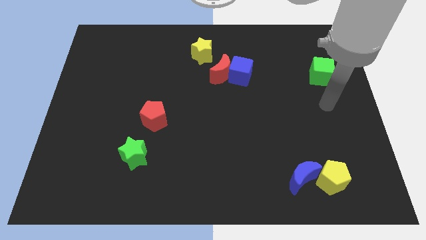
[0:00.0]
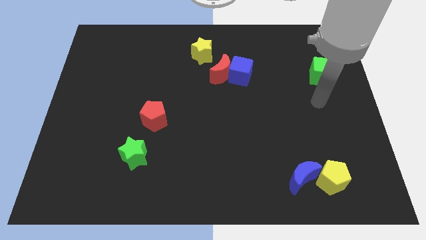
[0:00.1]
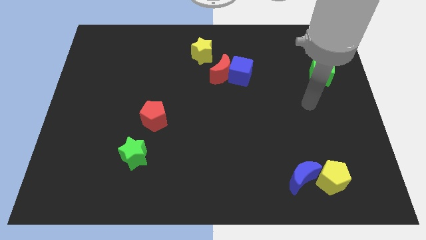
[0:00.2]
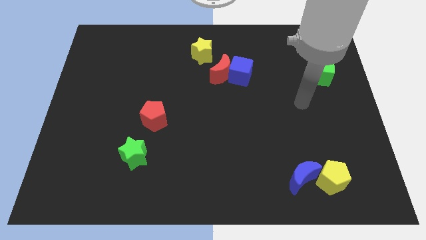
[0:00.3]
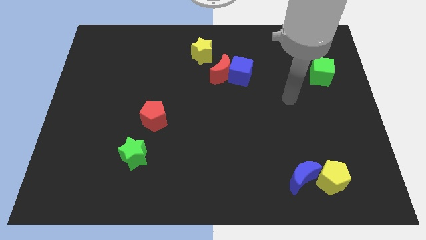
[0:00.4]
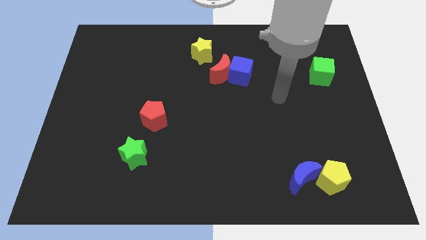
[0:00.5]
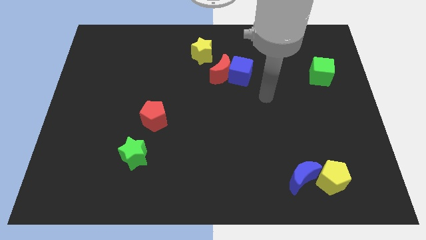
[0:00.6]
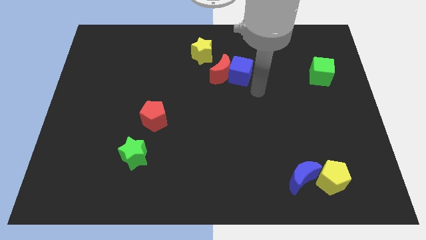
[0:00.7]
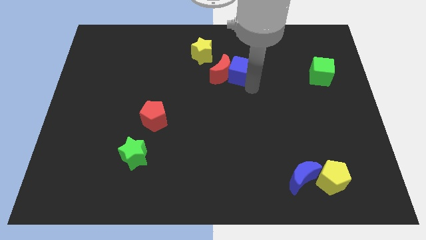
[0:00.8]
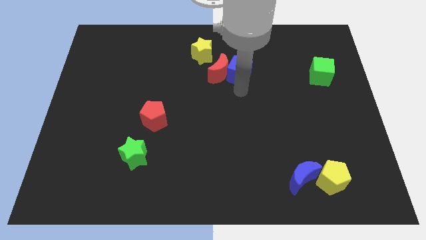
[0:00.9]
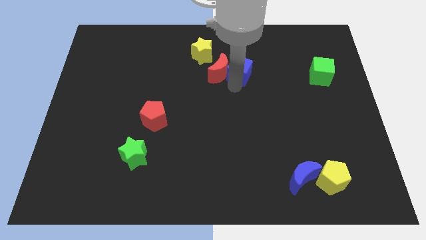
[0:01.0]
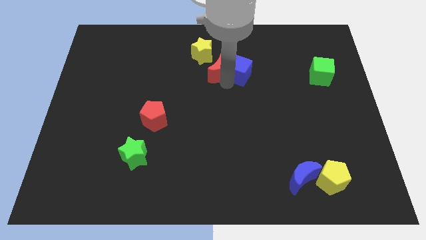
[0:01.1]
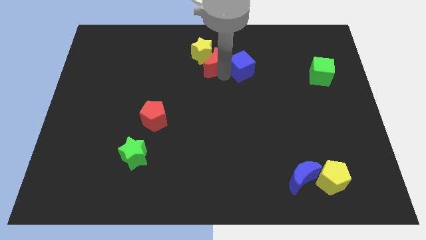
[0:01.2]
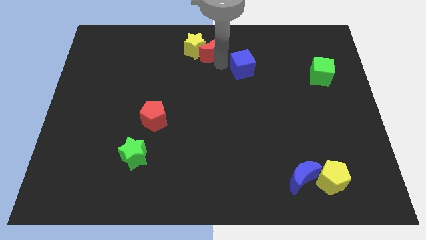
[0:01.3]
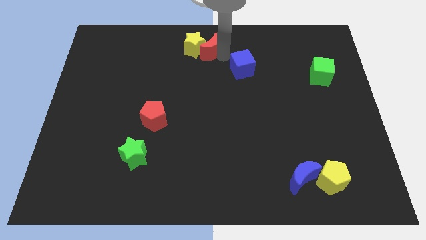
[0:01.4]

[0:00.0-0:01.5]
separate the blue cube from the red moon

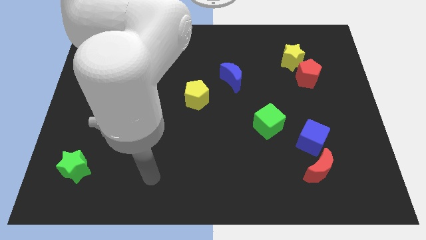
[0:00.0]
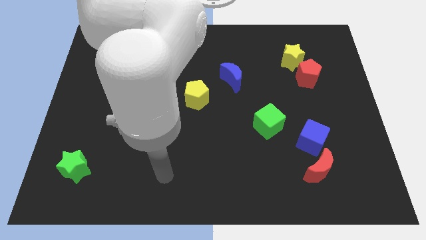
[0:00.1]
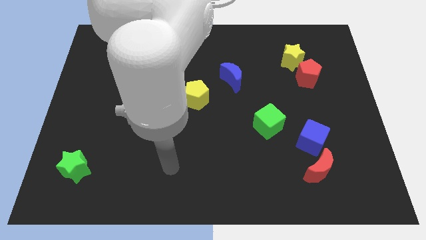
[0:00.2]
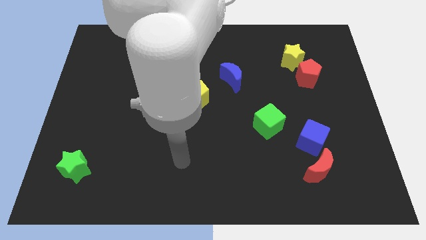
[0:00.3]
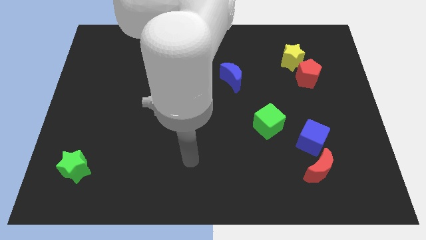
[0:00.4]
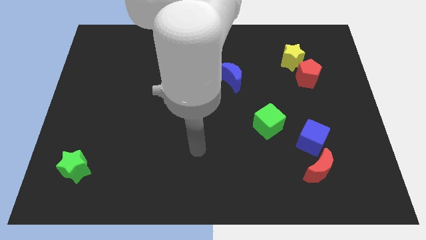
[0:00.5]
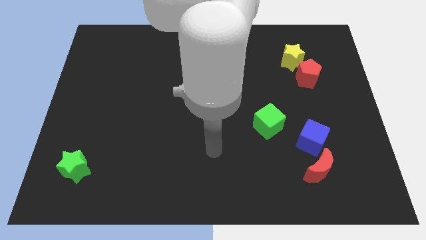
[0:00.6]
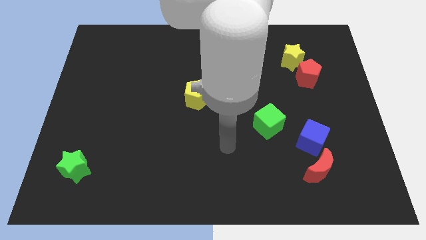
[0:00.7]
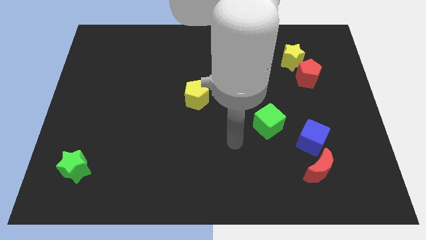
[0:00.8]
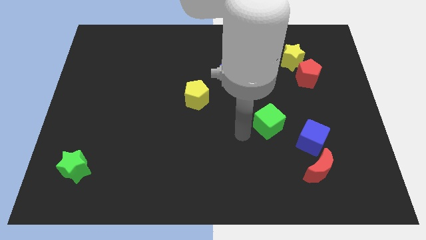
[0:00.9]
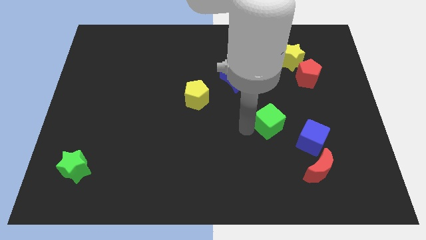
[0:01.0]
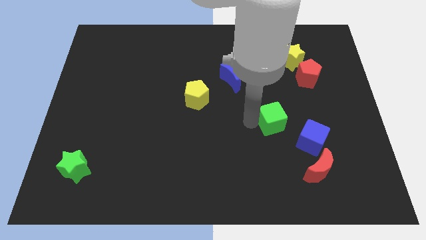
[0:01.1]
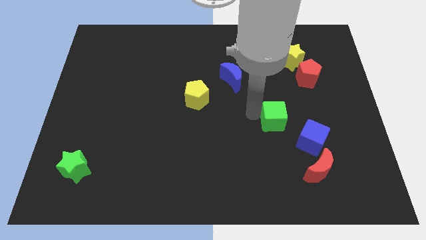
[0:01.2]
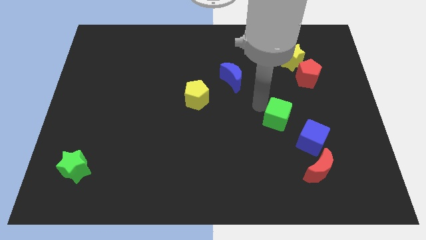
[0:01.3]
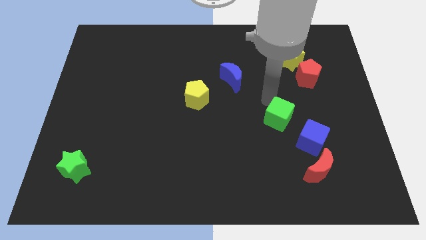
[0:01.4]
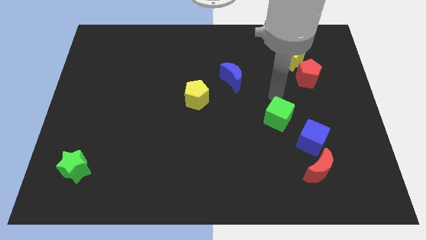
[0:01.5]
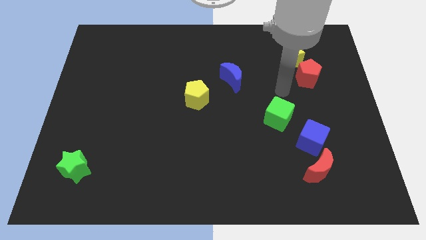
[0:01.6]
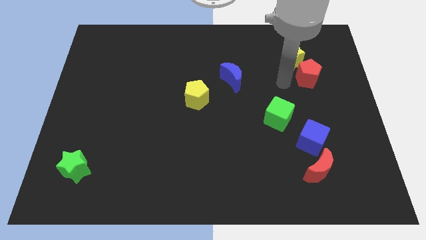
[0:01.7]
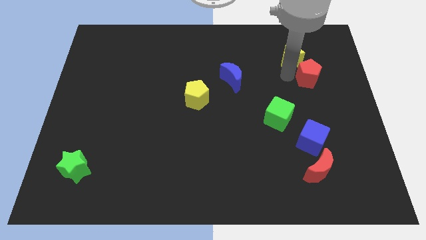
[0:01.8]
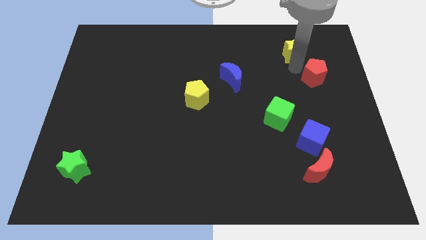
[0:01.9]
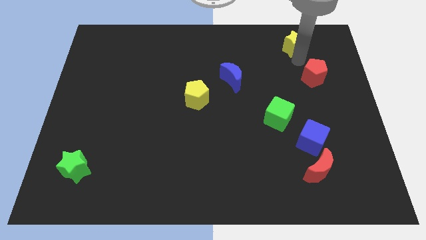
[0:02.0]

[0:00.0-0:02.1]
pull the red pentagon apart from the yellow star

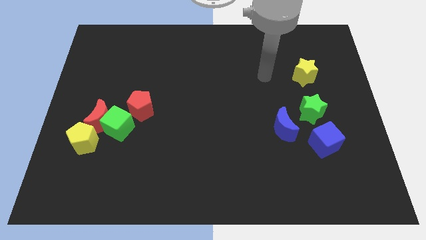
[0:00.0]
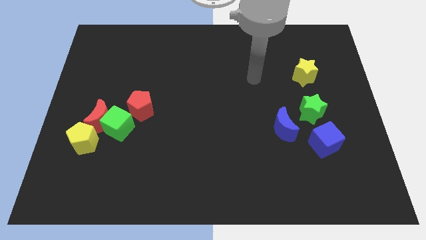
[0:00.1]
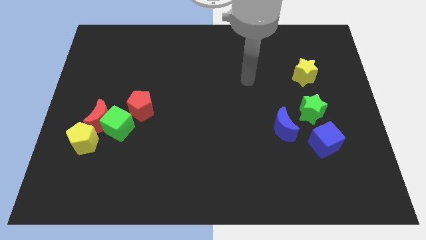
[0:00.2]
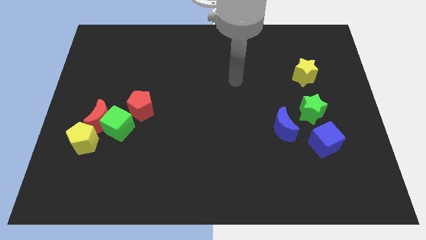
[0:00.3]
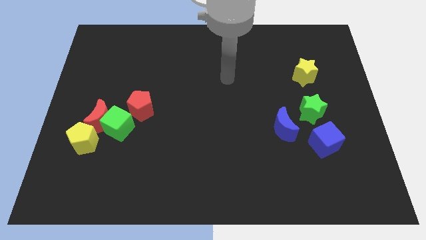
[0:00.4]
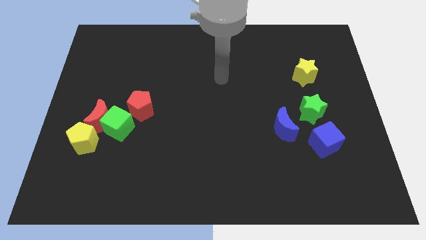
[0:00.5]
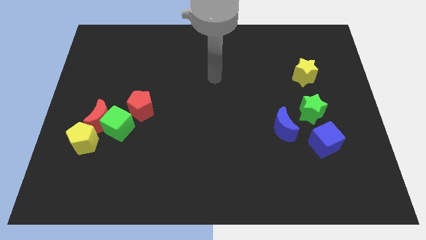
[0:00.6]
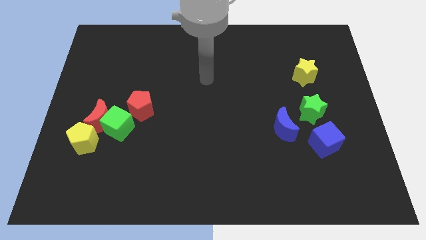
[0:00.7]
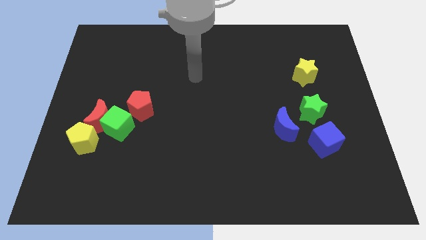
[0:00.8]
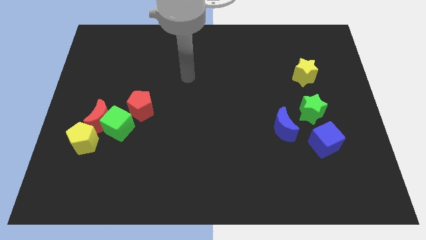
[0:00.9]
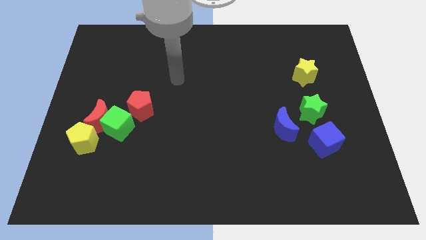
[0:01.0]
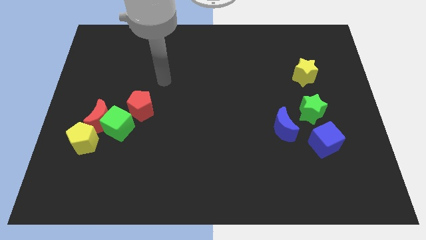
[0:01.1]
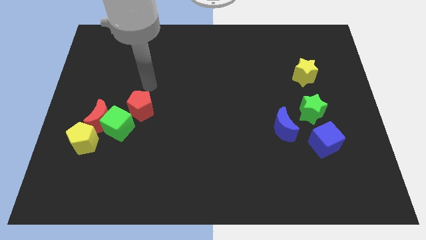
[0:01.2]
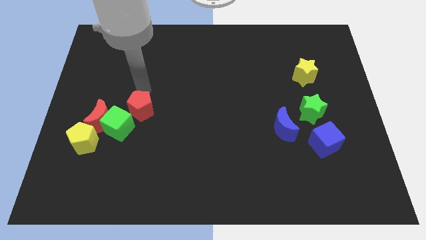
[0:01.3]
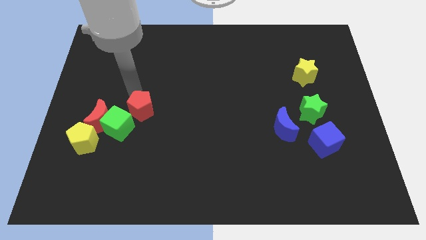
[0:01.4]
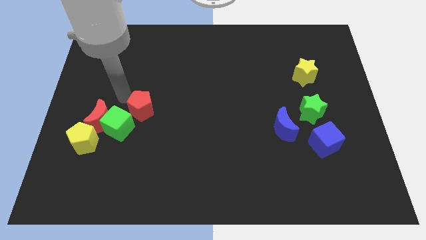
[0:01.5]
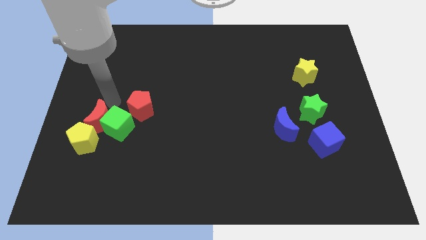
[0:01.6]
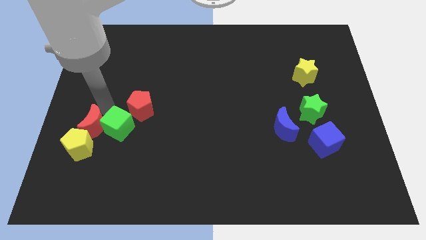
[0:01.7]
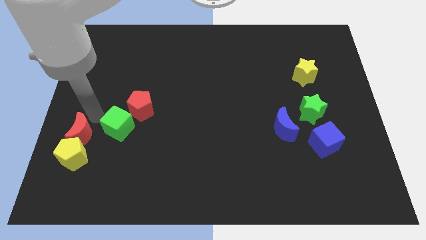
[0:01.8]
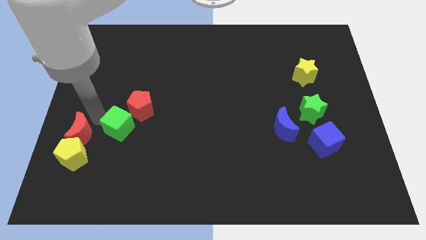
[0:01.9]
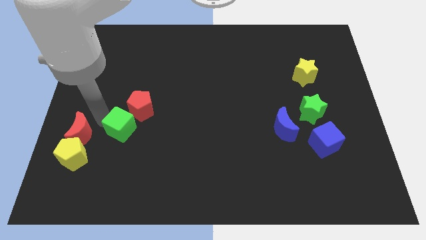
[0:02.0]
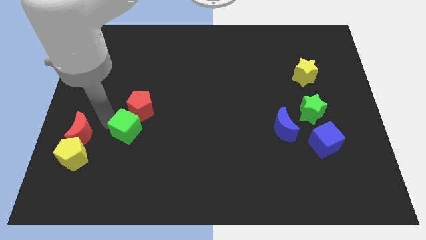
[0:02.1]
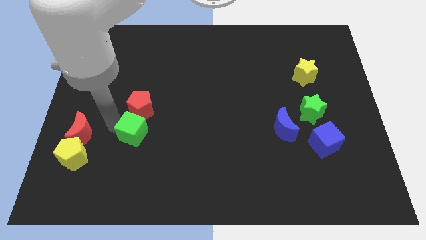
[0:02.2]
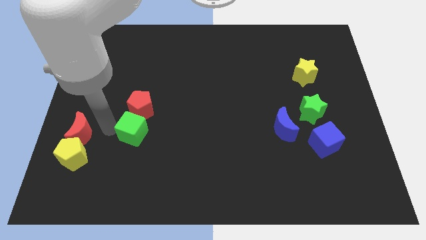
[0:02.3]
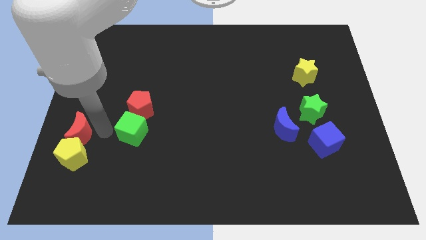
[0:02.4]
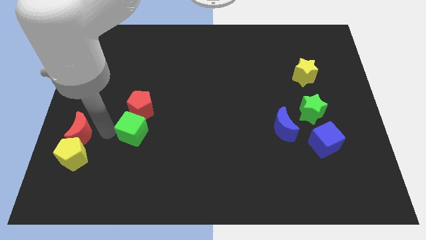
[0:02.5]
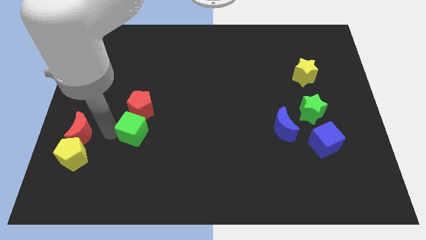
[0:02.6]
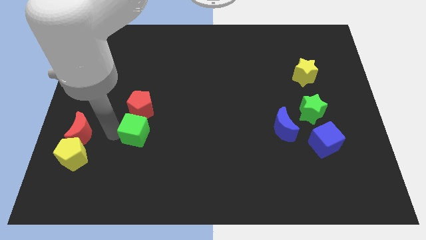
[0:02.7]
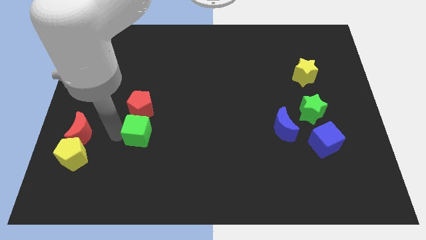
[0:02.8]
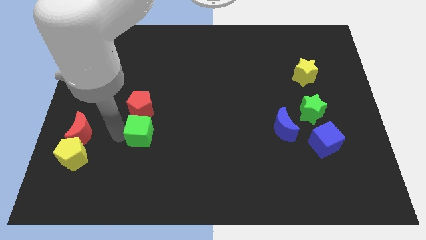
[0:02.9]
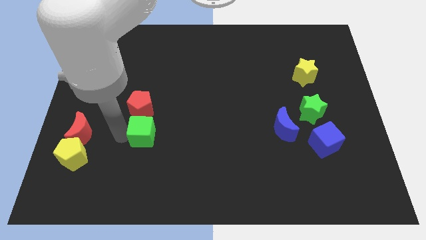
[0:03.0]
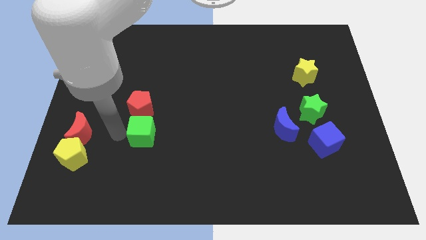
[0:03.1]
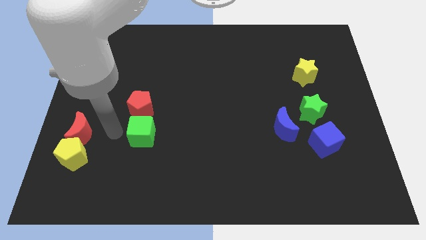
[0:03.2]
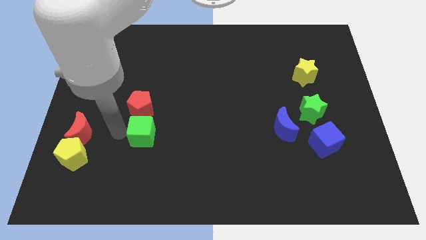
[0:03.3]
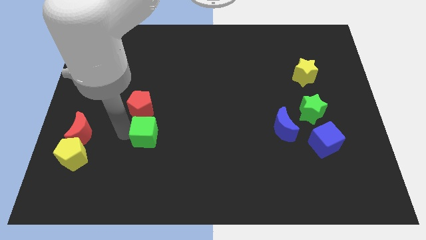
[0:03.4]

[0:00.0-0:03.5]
pull the green cube apart from the group

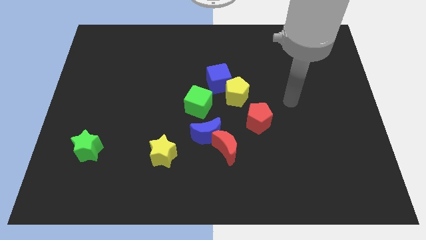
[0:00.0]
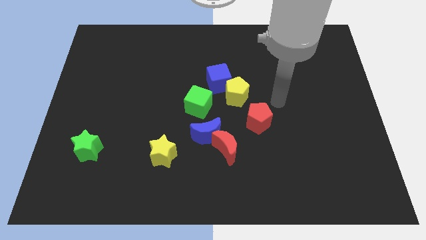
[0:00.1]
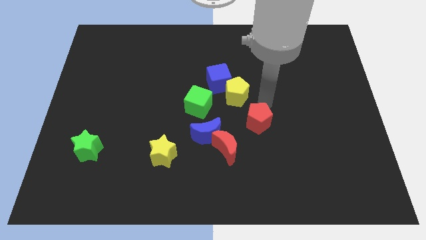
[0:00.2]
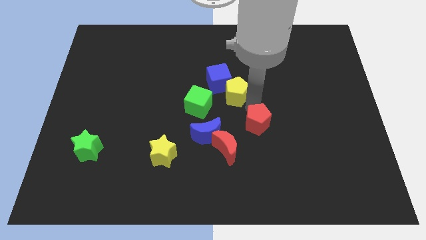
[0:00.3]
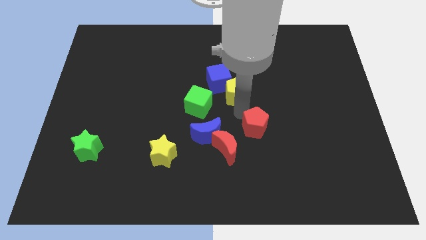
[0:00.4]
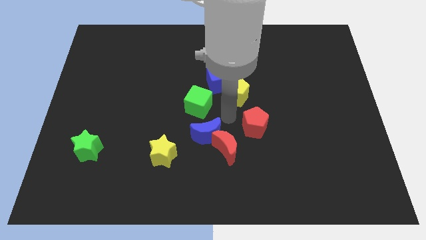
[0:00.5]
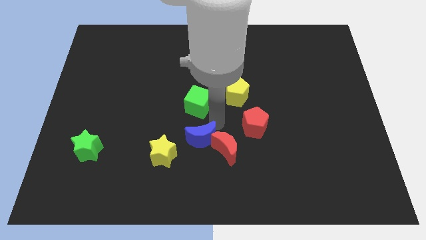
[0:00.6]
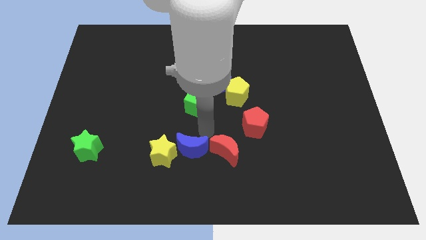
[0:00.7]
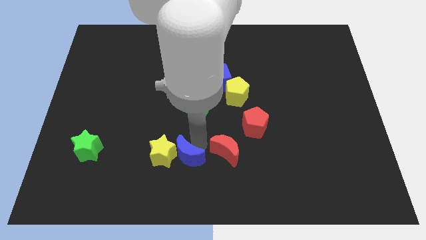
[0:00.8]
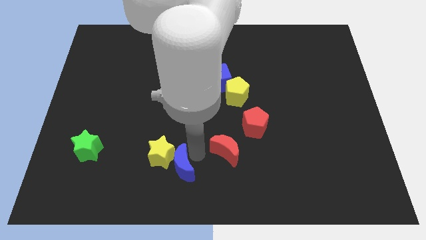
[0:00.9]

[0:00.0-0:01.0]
pull the red moon apart from the blue moon

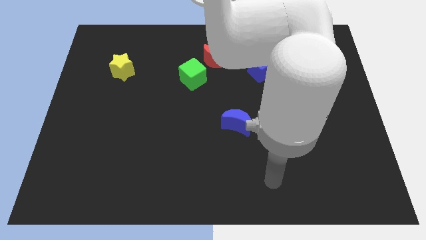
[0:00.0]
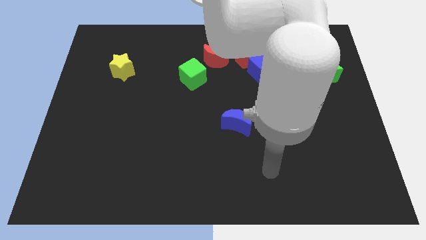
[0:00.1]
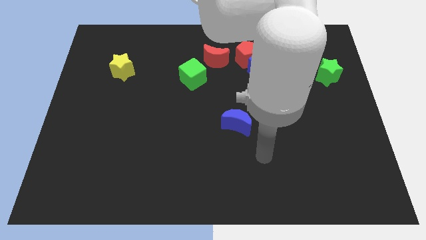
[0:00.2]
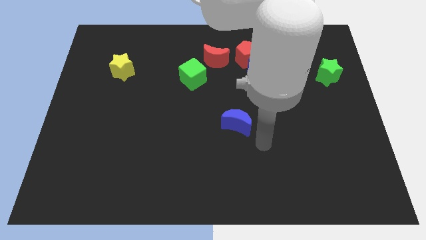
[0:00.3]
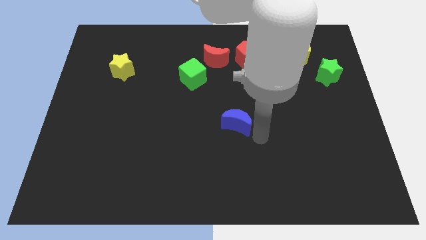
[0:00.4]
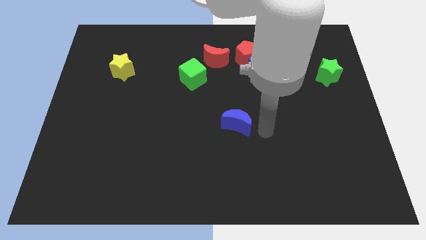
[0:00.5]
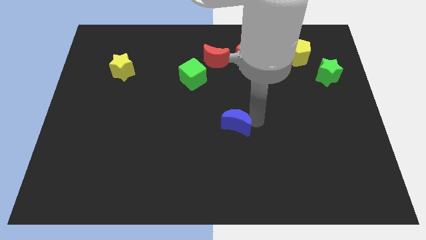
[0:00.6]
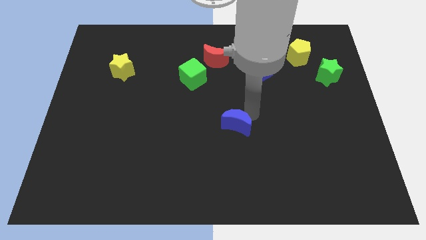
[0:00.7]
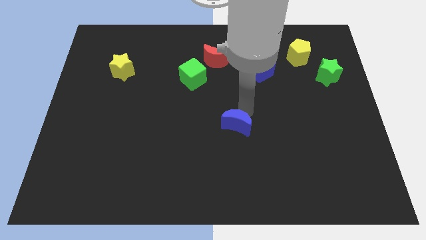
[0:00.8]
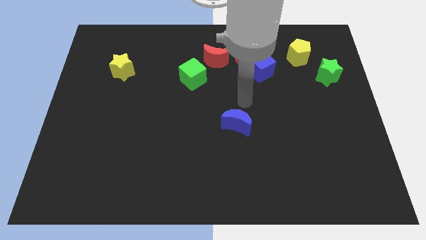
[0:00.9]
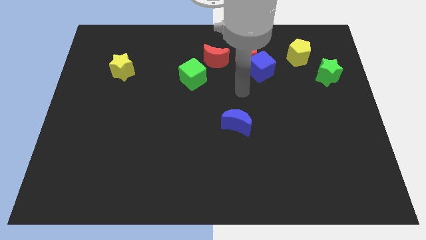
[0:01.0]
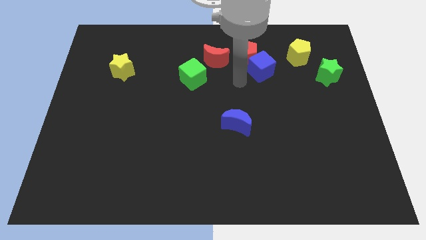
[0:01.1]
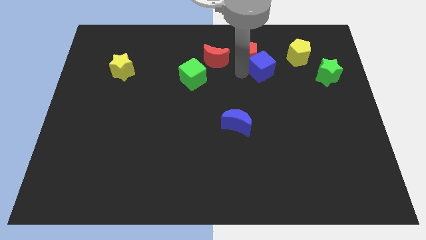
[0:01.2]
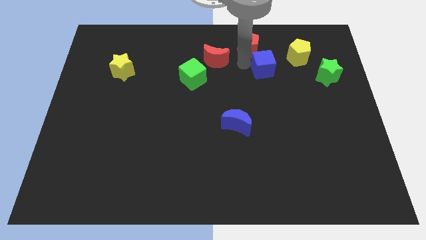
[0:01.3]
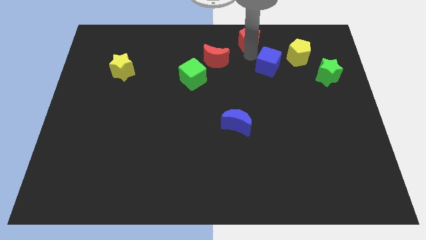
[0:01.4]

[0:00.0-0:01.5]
move the blue cube away from the red pentagon
